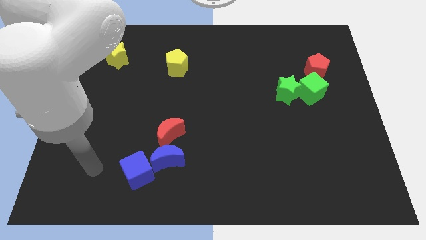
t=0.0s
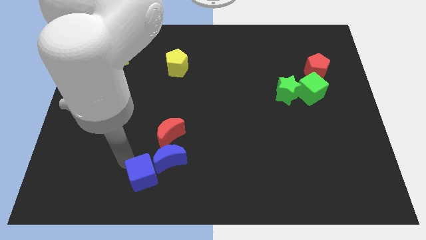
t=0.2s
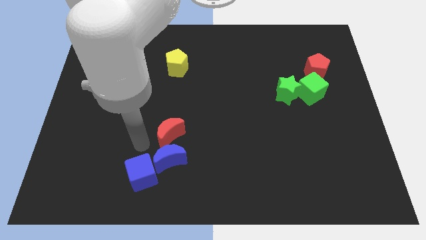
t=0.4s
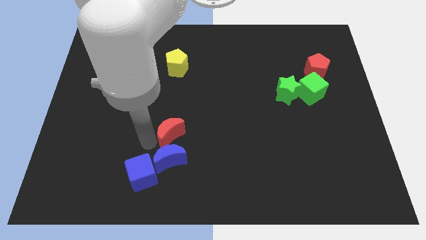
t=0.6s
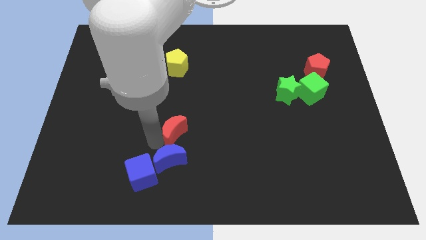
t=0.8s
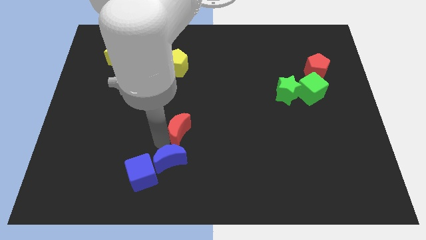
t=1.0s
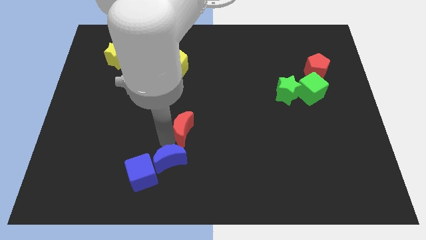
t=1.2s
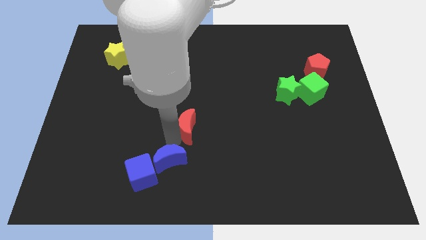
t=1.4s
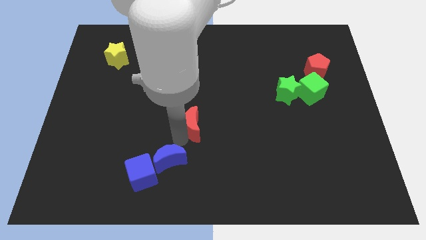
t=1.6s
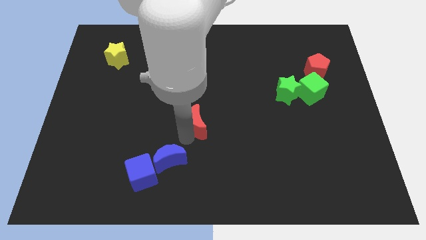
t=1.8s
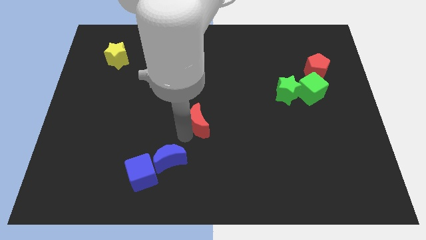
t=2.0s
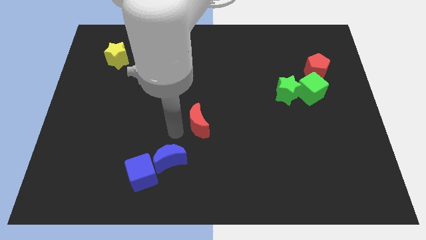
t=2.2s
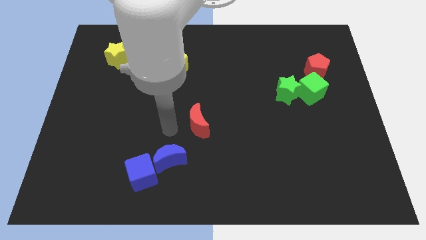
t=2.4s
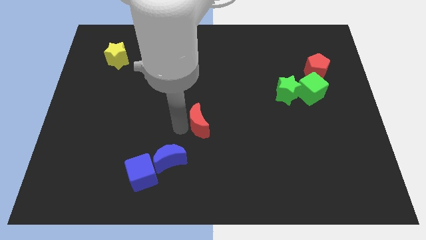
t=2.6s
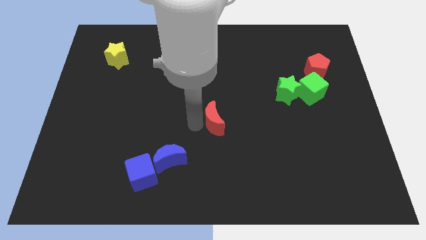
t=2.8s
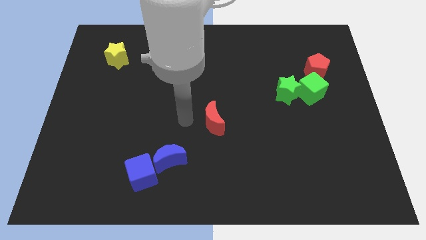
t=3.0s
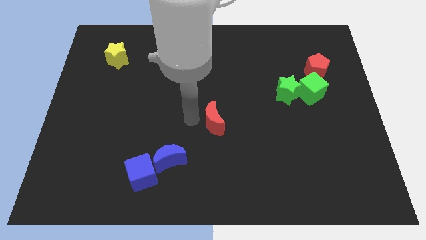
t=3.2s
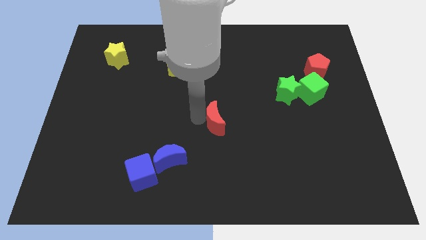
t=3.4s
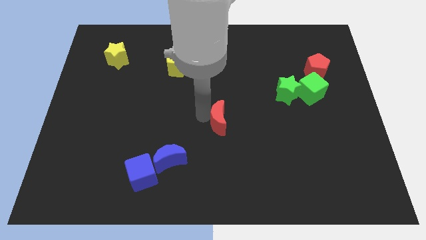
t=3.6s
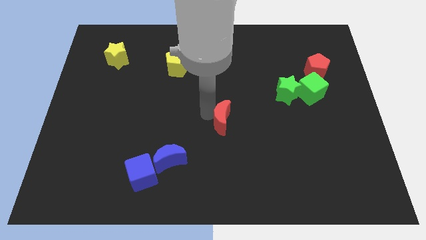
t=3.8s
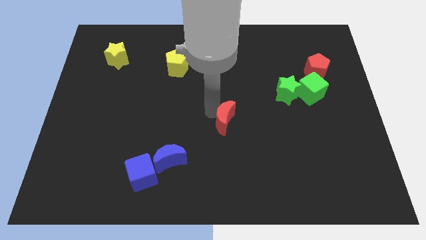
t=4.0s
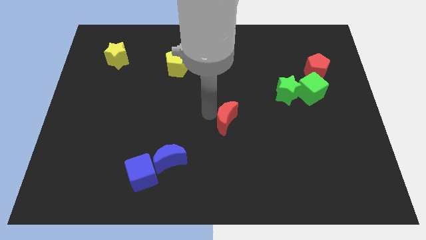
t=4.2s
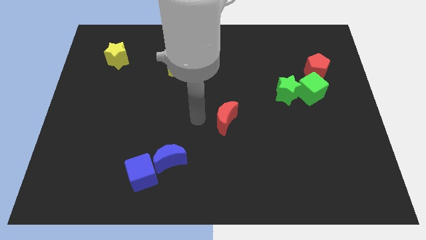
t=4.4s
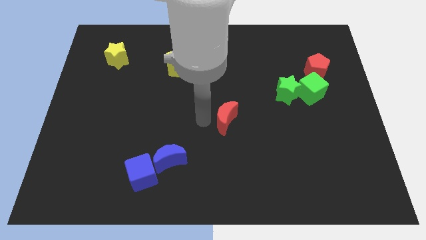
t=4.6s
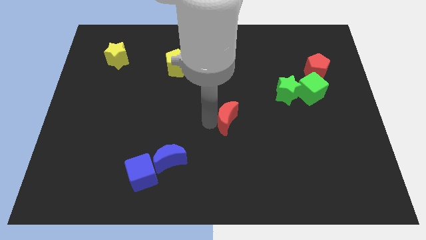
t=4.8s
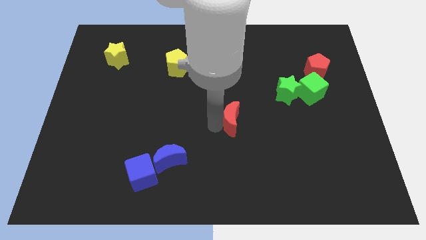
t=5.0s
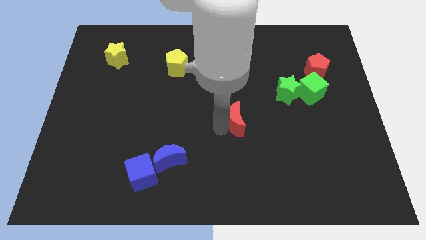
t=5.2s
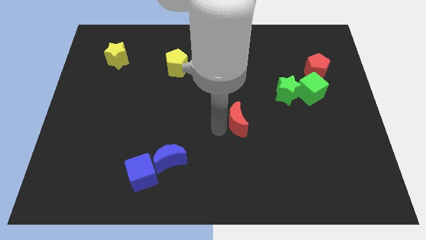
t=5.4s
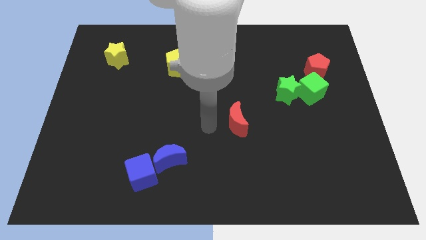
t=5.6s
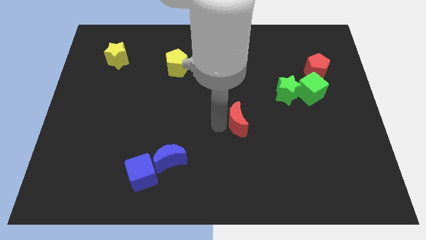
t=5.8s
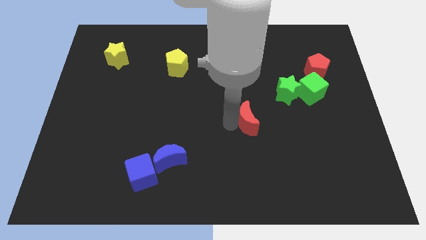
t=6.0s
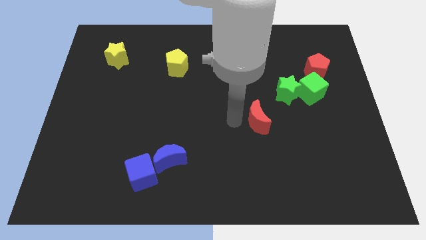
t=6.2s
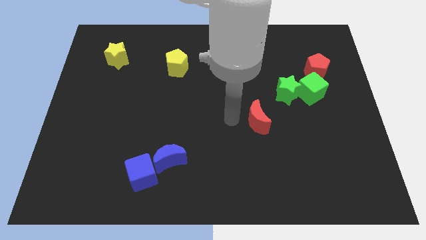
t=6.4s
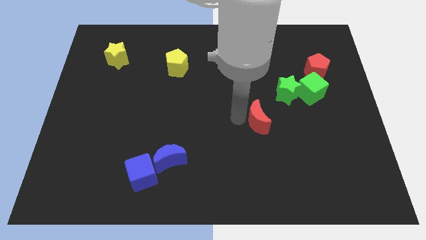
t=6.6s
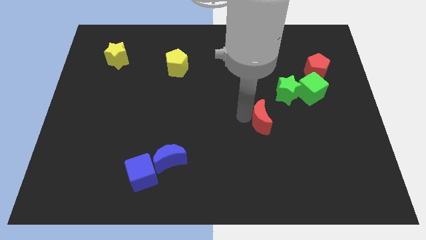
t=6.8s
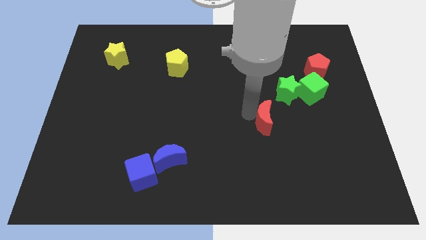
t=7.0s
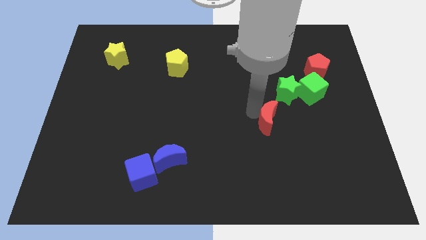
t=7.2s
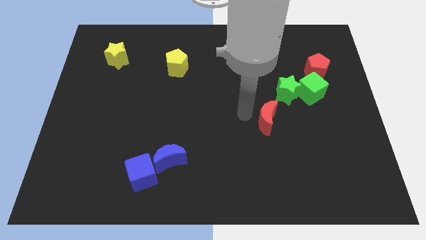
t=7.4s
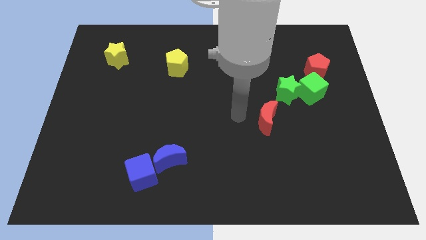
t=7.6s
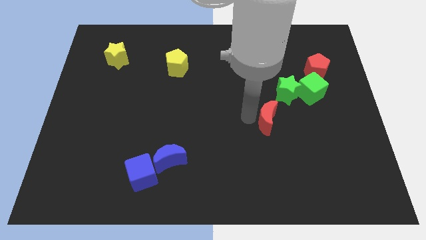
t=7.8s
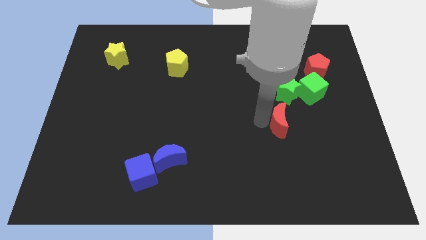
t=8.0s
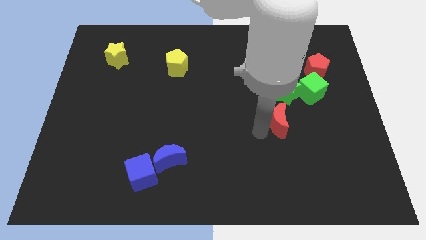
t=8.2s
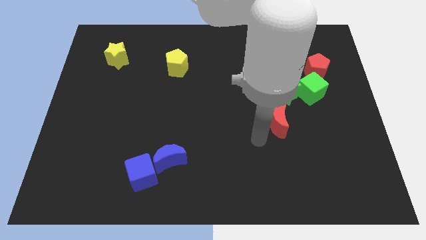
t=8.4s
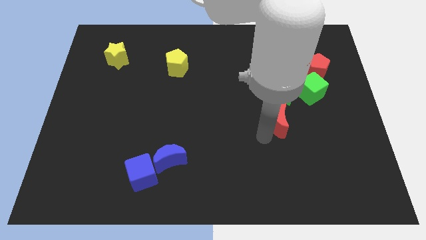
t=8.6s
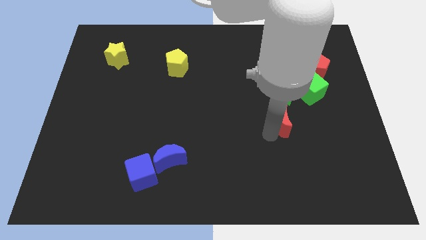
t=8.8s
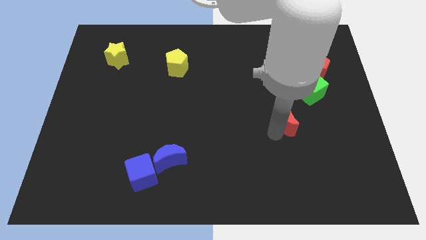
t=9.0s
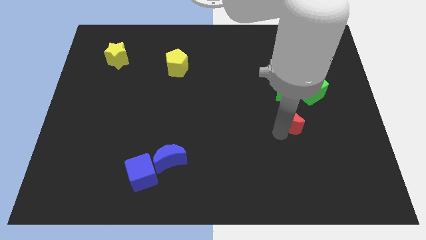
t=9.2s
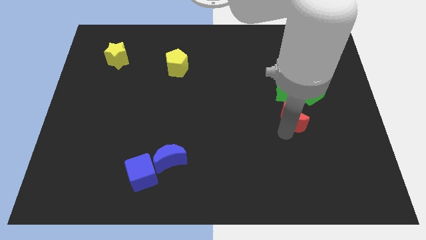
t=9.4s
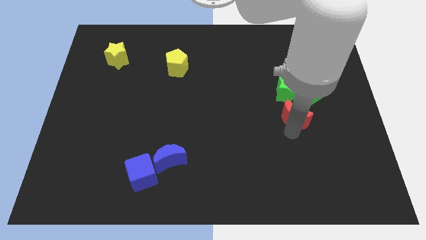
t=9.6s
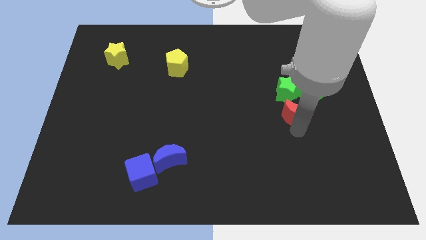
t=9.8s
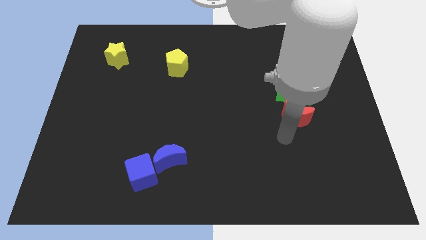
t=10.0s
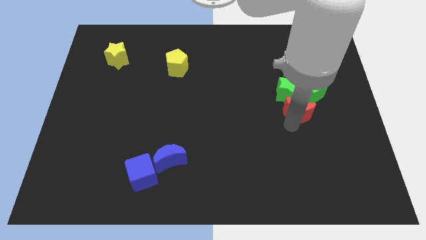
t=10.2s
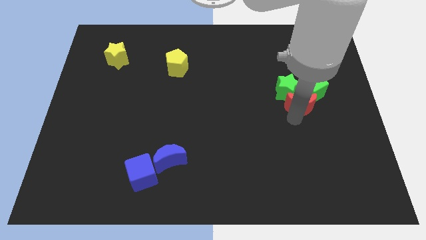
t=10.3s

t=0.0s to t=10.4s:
put the red moon close to the green cube

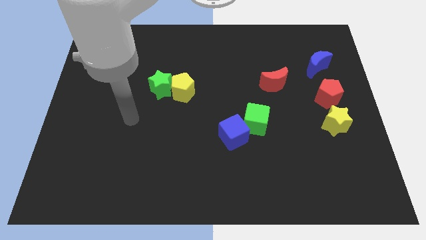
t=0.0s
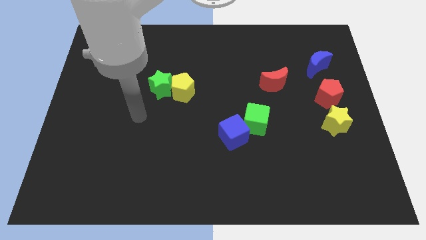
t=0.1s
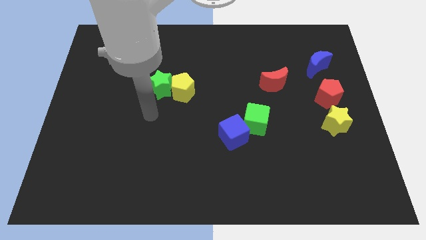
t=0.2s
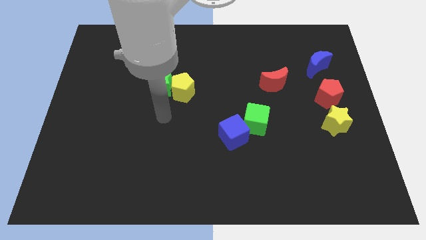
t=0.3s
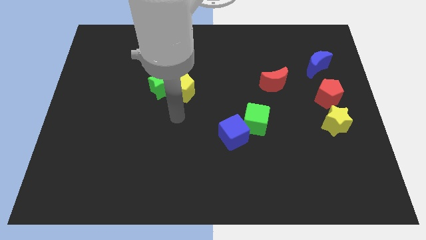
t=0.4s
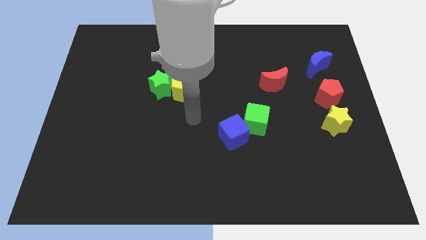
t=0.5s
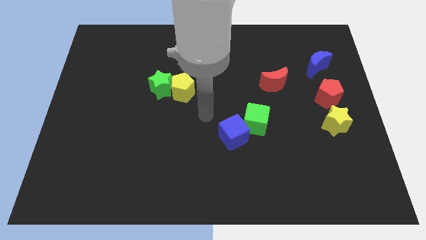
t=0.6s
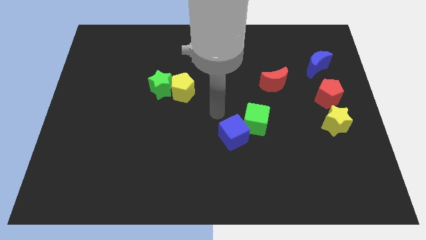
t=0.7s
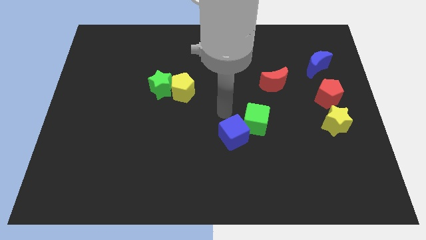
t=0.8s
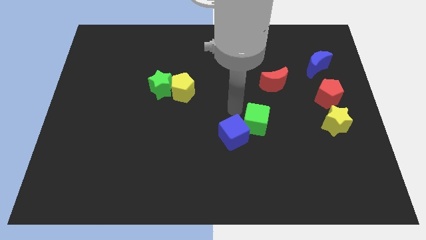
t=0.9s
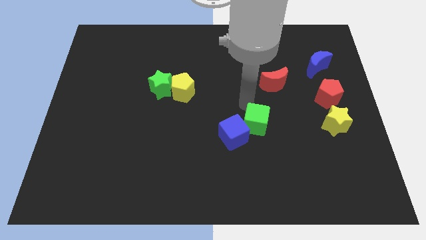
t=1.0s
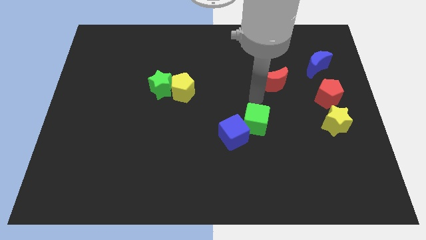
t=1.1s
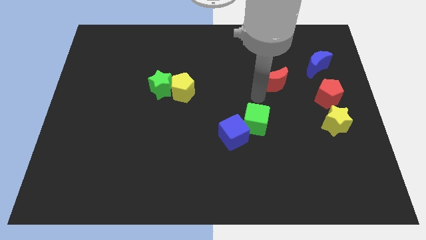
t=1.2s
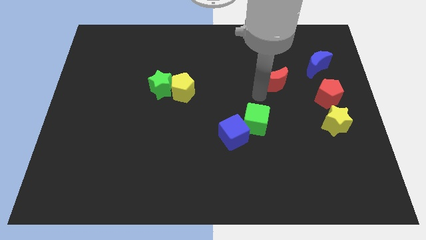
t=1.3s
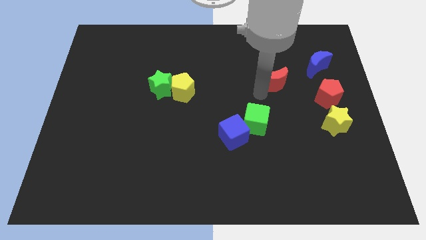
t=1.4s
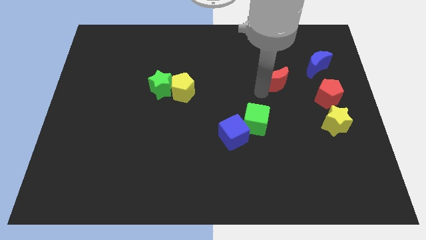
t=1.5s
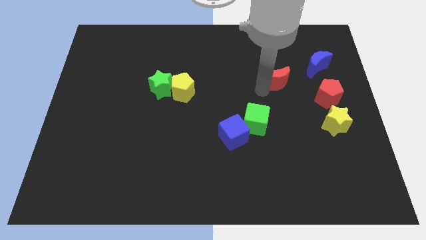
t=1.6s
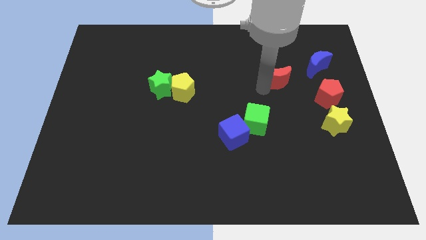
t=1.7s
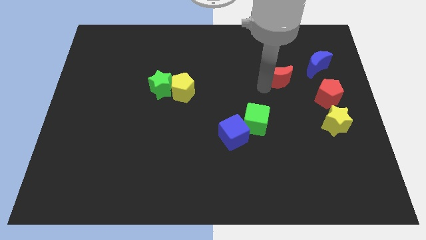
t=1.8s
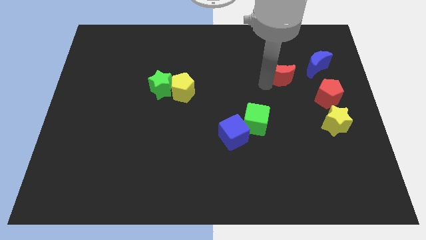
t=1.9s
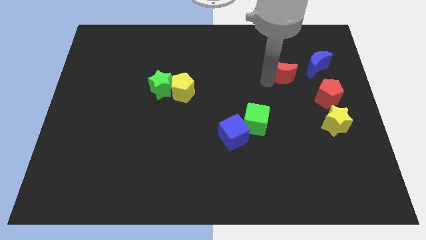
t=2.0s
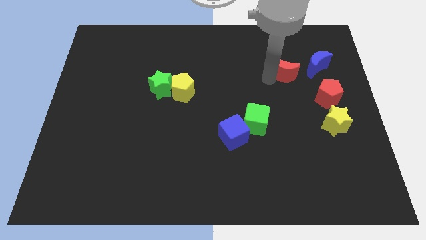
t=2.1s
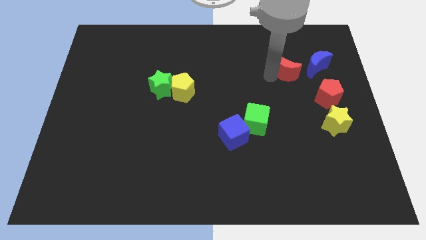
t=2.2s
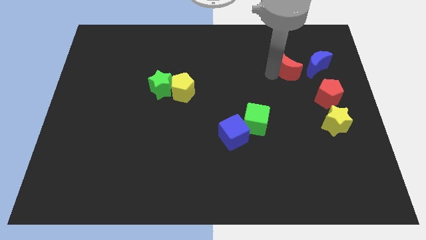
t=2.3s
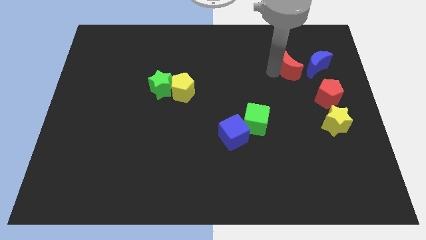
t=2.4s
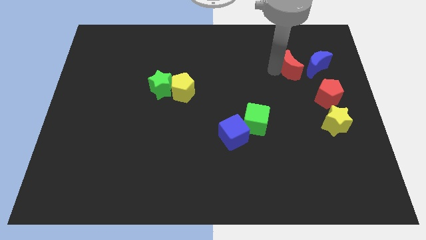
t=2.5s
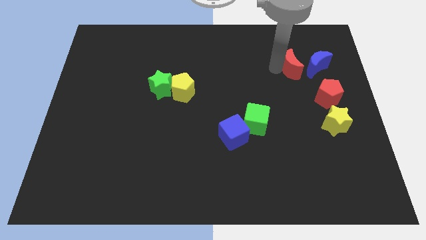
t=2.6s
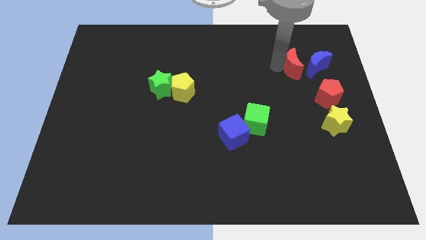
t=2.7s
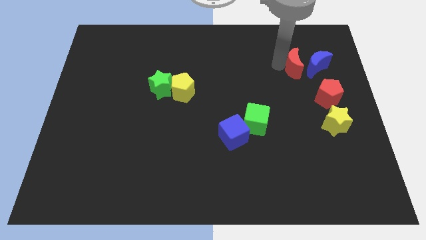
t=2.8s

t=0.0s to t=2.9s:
move the red moon close to the blue moon
